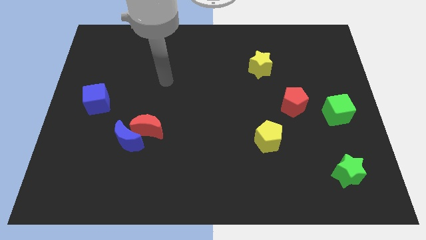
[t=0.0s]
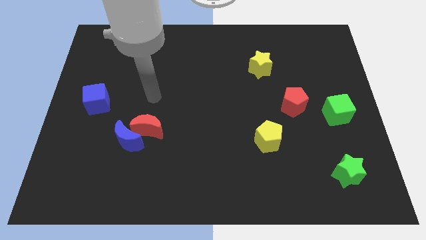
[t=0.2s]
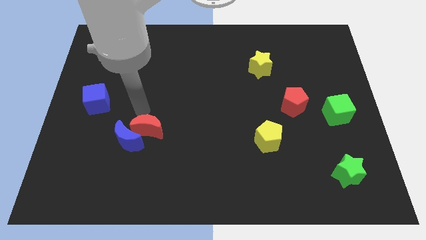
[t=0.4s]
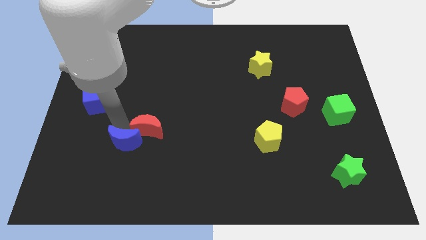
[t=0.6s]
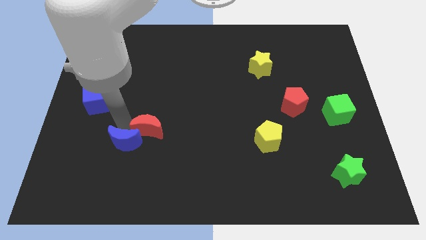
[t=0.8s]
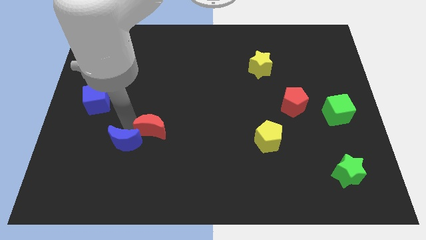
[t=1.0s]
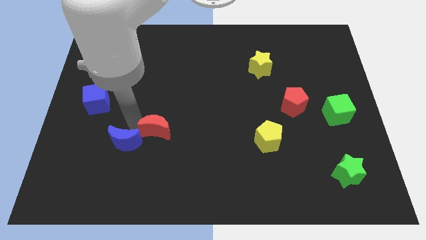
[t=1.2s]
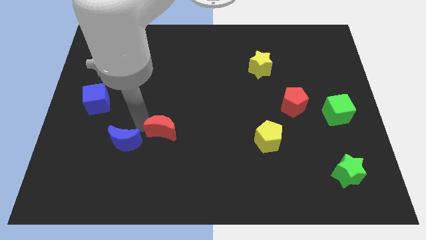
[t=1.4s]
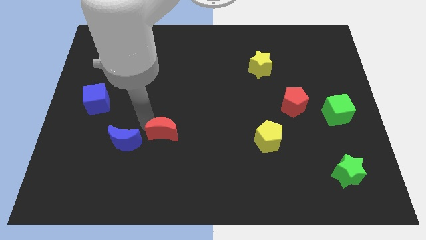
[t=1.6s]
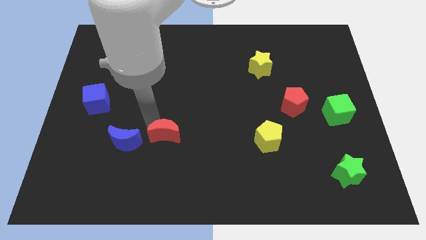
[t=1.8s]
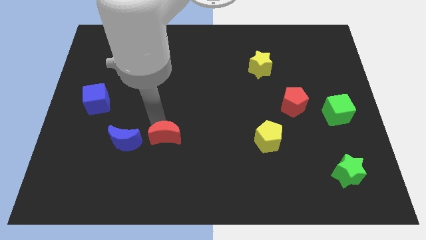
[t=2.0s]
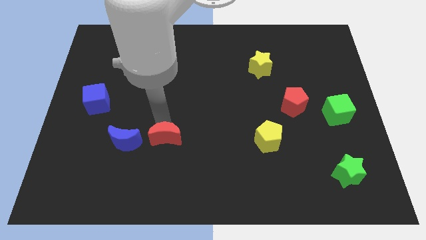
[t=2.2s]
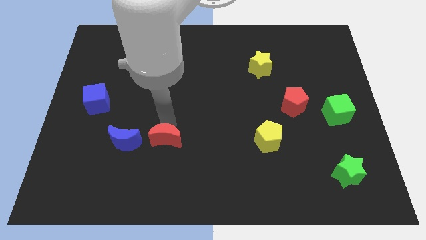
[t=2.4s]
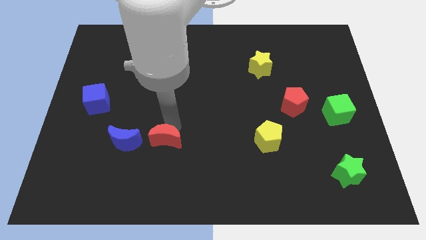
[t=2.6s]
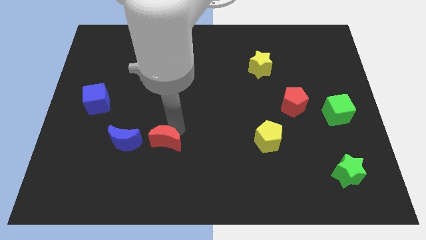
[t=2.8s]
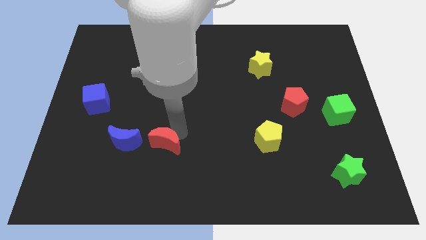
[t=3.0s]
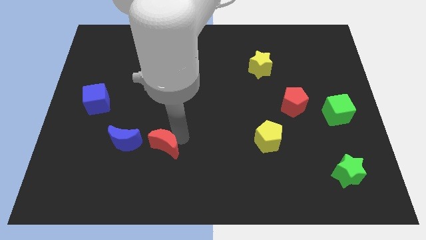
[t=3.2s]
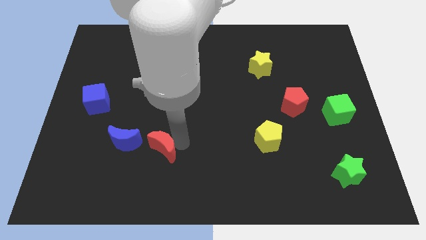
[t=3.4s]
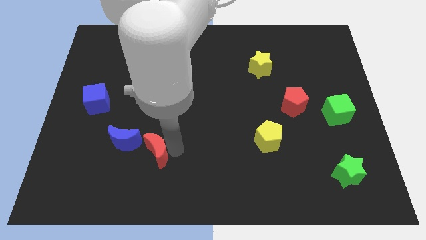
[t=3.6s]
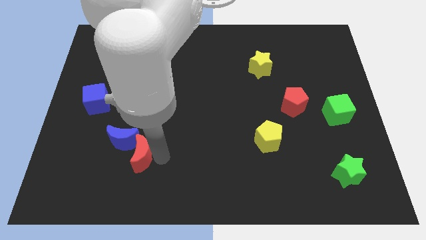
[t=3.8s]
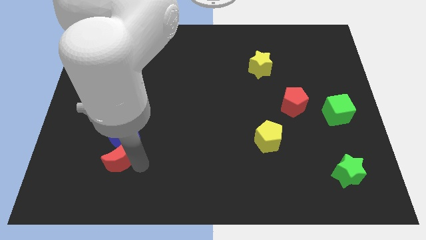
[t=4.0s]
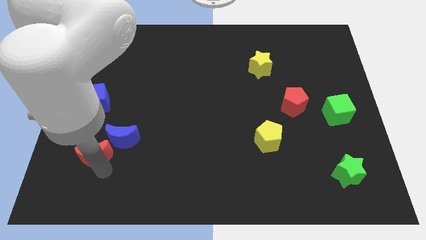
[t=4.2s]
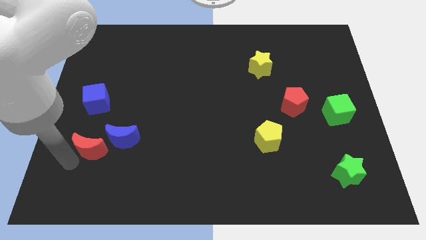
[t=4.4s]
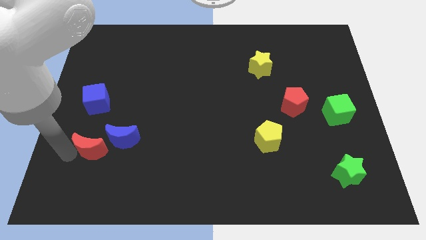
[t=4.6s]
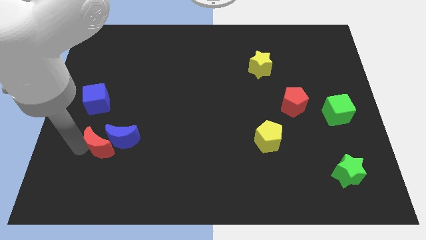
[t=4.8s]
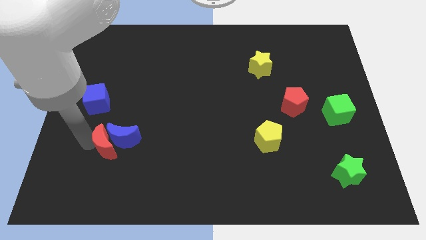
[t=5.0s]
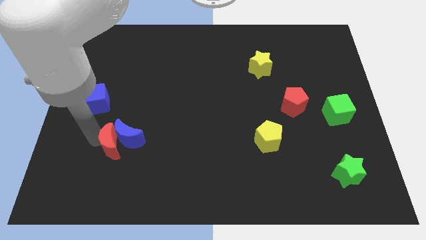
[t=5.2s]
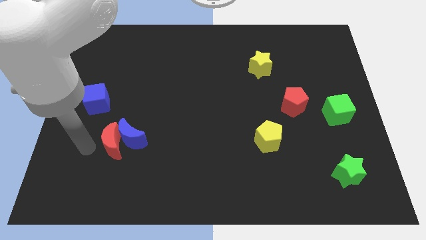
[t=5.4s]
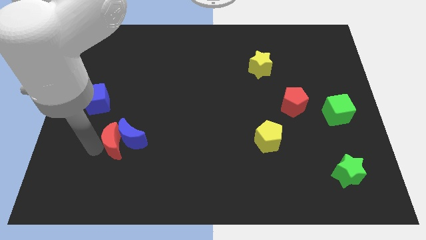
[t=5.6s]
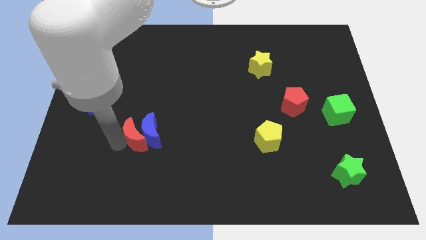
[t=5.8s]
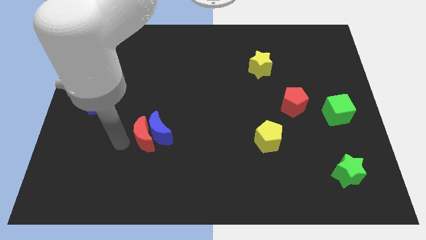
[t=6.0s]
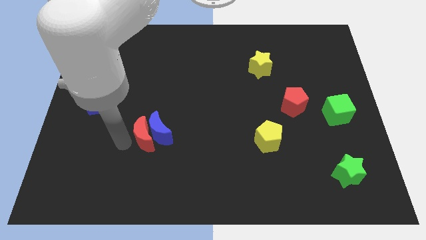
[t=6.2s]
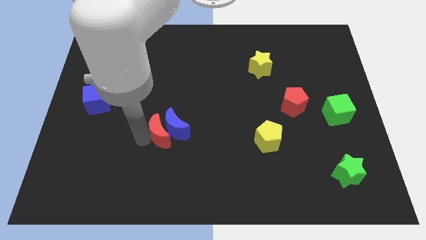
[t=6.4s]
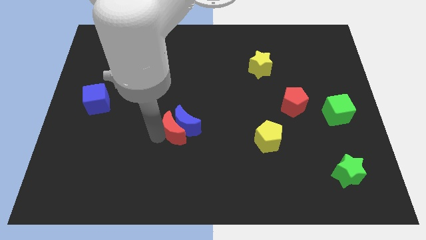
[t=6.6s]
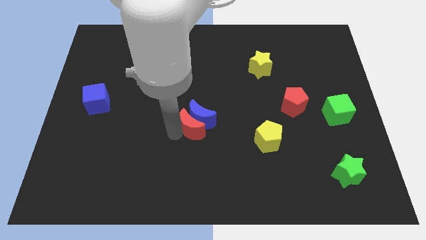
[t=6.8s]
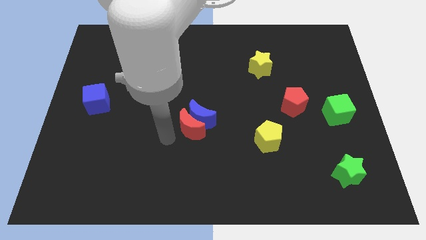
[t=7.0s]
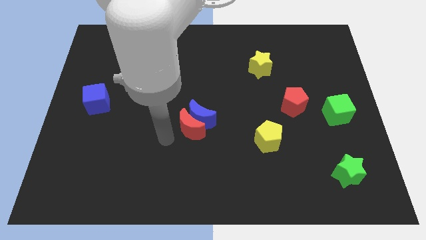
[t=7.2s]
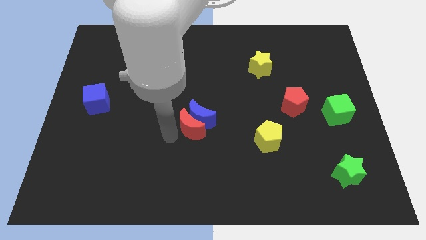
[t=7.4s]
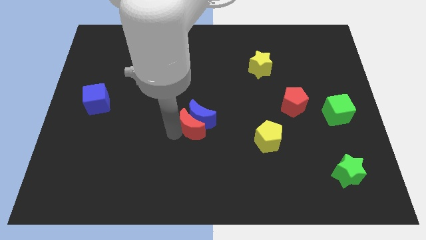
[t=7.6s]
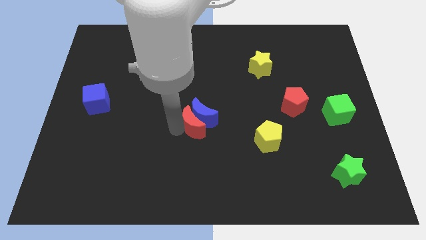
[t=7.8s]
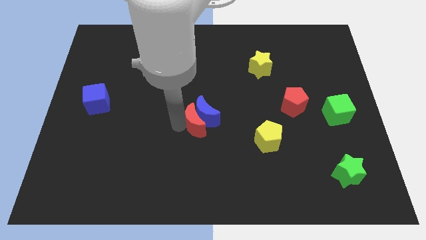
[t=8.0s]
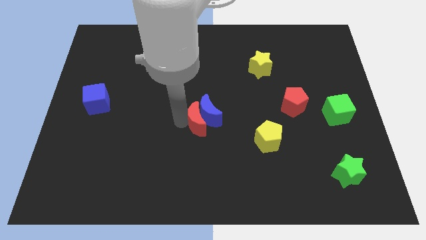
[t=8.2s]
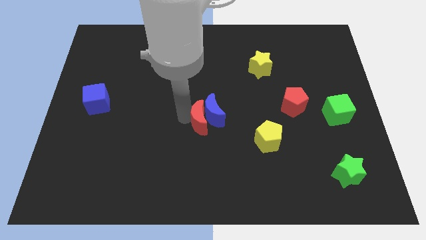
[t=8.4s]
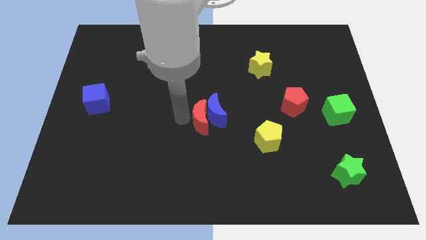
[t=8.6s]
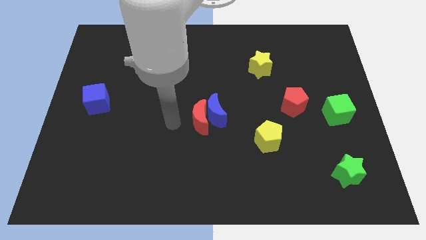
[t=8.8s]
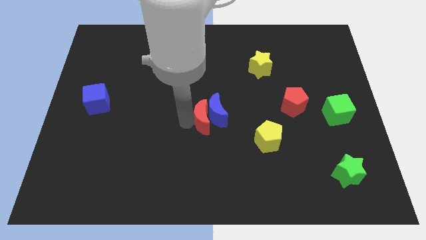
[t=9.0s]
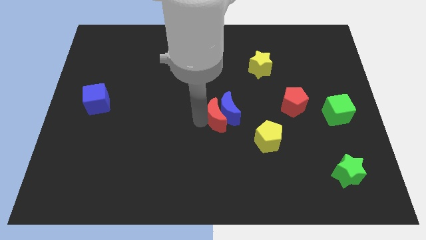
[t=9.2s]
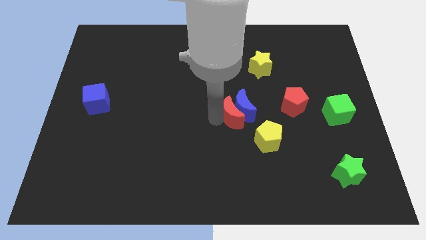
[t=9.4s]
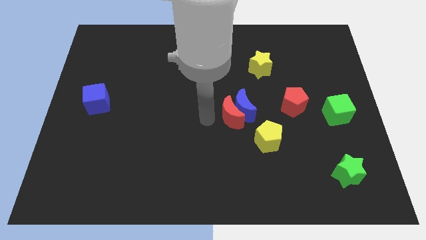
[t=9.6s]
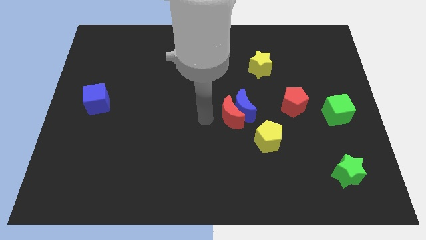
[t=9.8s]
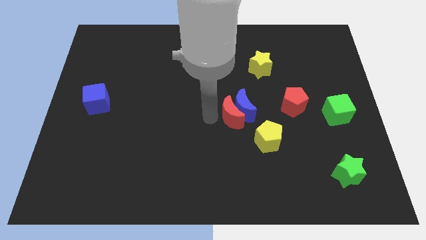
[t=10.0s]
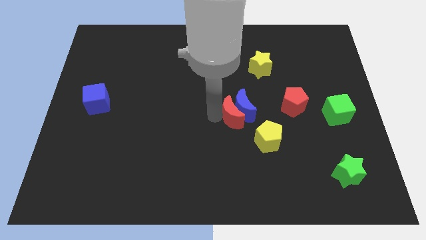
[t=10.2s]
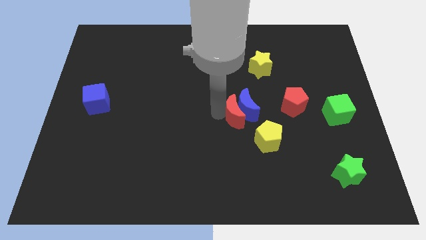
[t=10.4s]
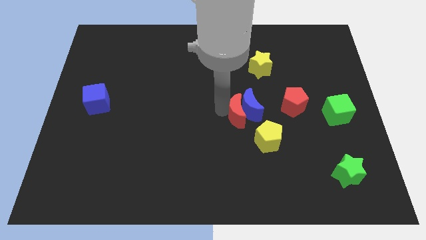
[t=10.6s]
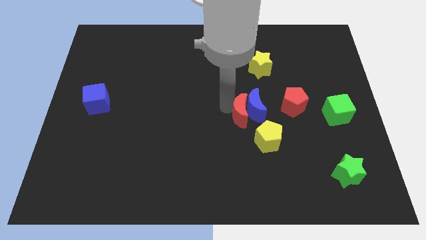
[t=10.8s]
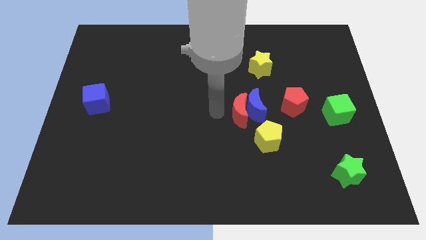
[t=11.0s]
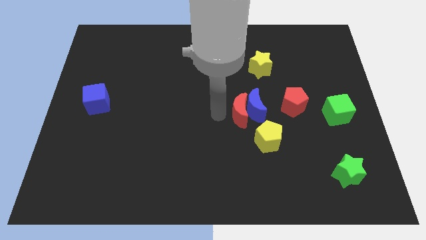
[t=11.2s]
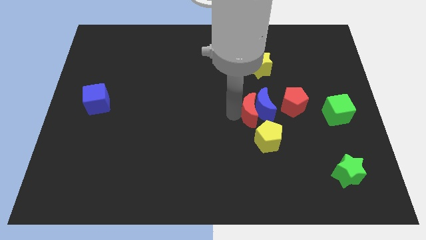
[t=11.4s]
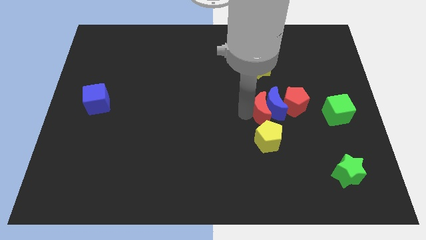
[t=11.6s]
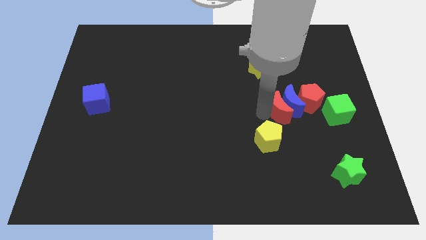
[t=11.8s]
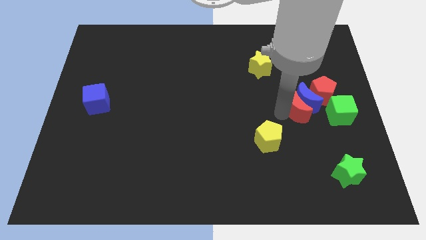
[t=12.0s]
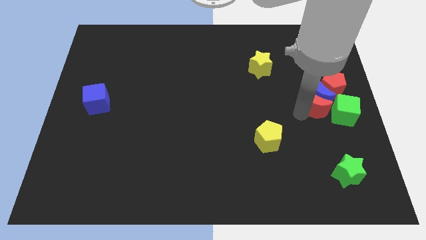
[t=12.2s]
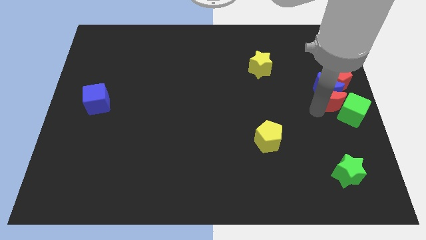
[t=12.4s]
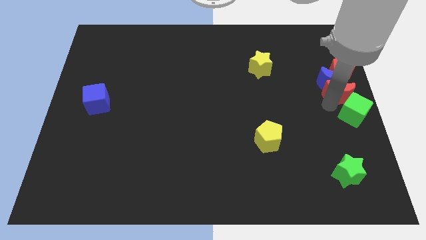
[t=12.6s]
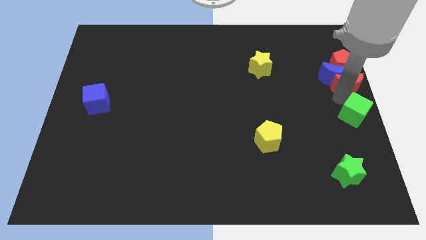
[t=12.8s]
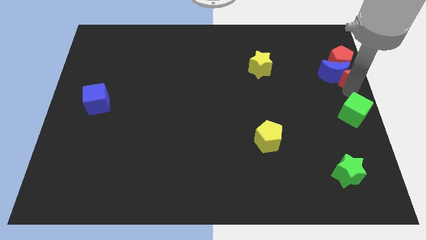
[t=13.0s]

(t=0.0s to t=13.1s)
push the red moon close to the red pentagon
